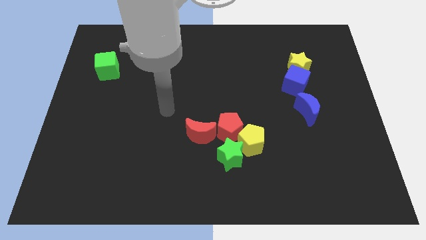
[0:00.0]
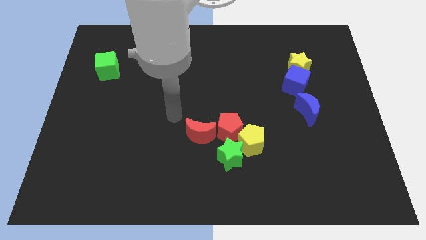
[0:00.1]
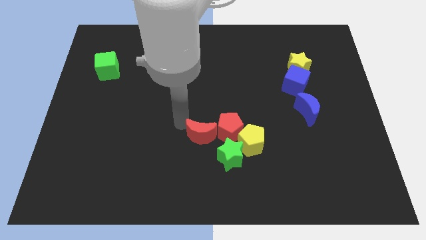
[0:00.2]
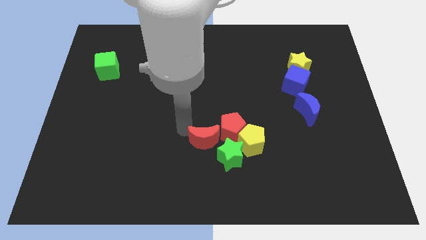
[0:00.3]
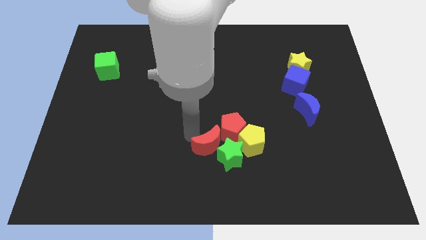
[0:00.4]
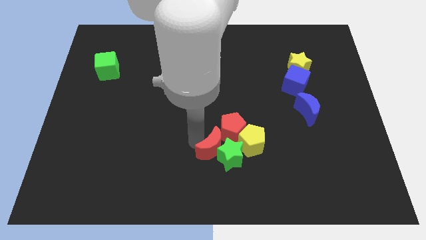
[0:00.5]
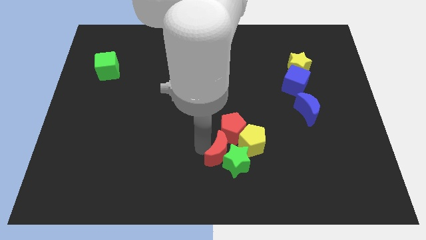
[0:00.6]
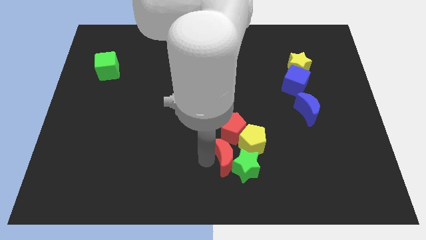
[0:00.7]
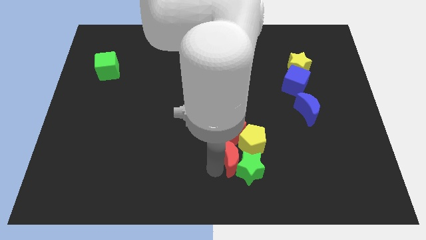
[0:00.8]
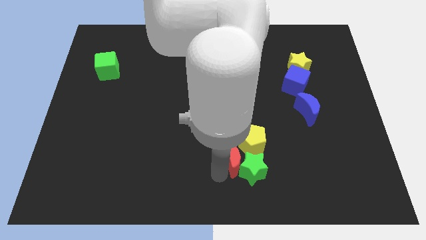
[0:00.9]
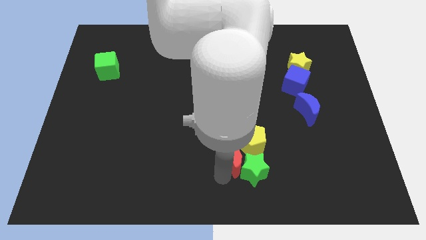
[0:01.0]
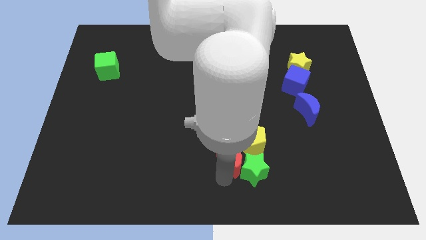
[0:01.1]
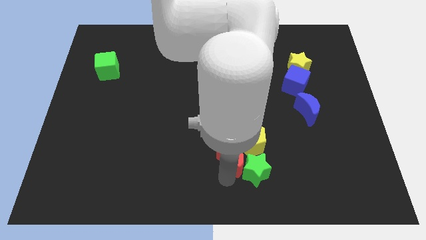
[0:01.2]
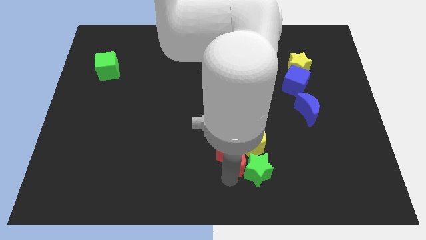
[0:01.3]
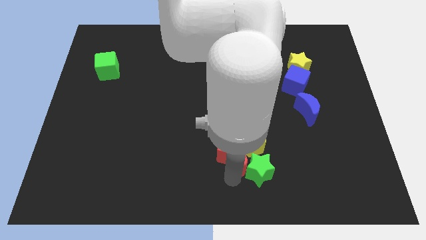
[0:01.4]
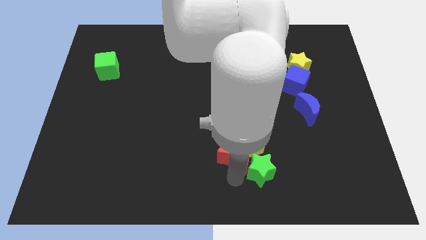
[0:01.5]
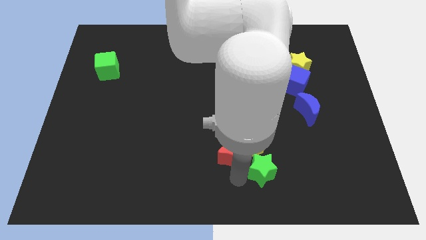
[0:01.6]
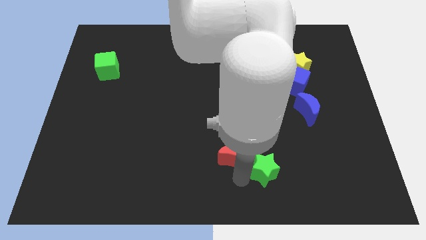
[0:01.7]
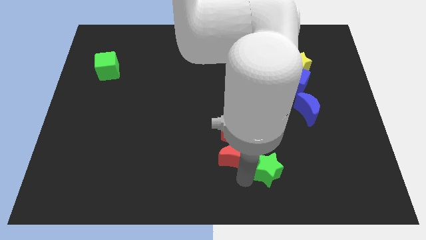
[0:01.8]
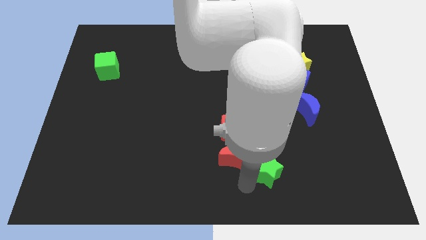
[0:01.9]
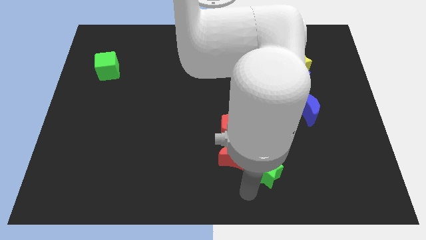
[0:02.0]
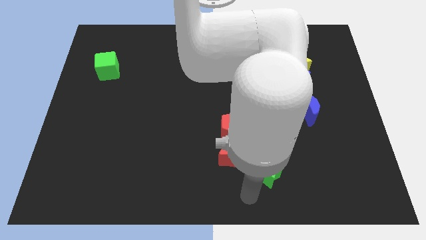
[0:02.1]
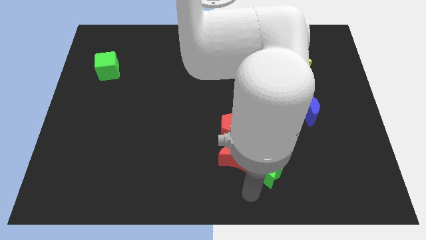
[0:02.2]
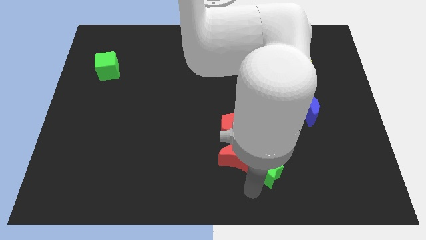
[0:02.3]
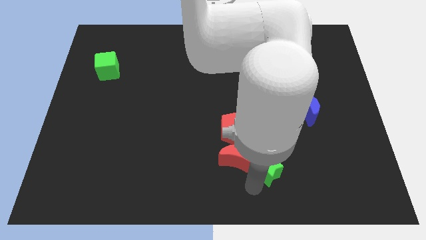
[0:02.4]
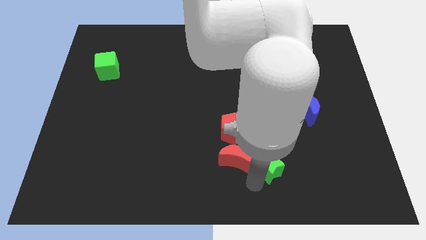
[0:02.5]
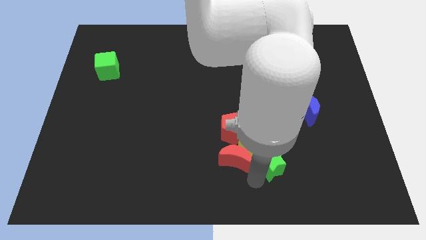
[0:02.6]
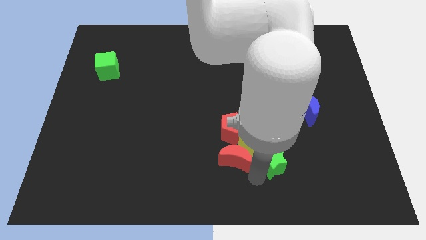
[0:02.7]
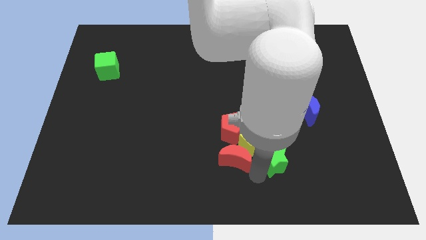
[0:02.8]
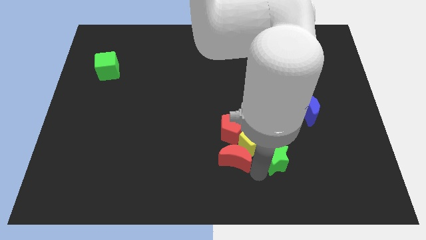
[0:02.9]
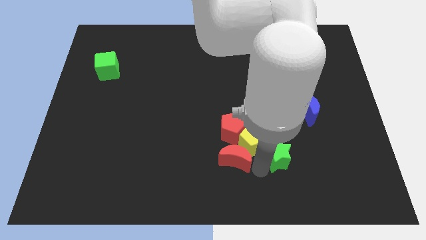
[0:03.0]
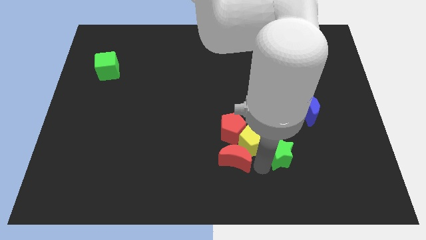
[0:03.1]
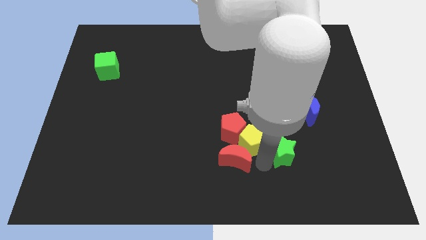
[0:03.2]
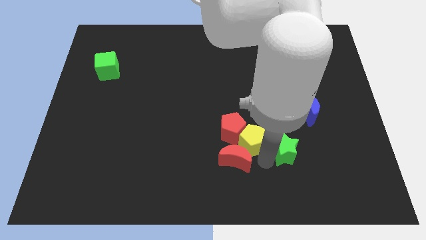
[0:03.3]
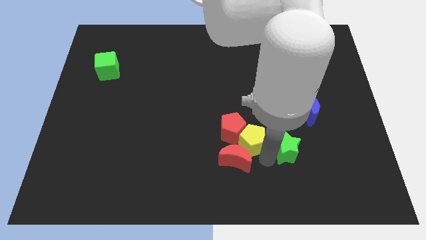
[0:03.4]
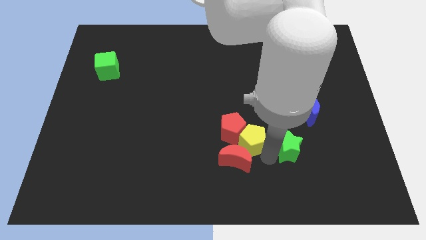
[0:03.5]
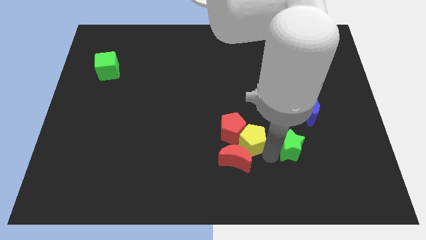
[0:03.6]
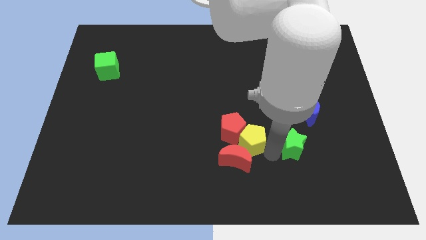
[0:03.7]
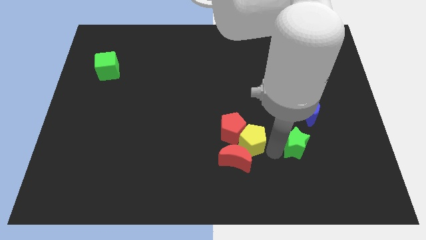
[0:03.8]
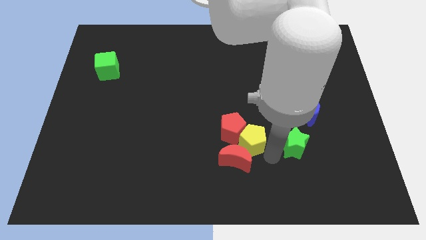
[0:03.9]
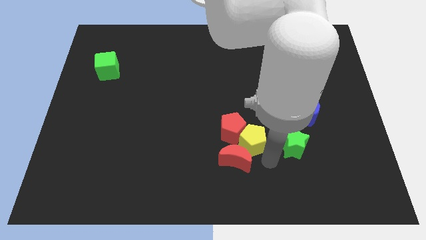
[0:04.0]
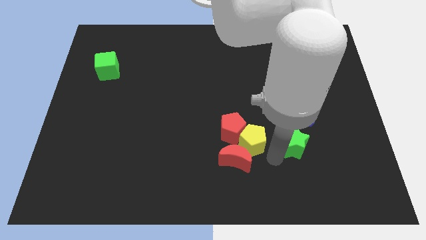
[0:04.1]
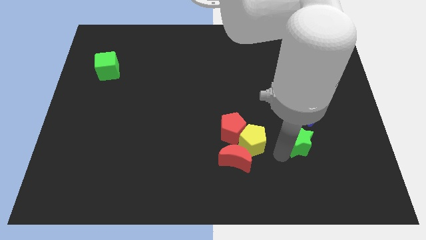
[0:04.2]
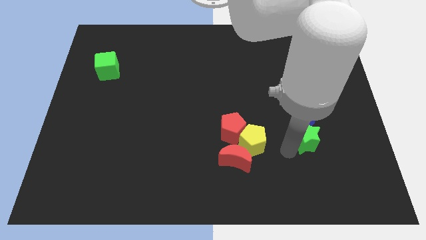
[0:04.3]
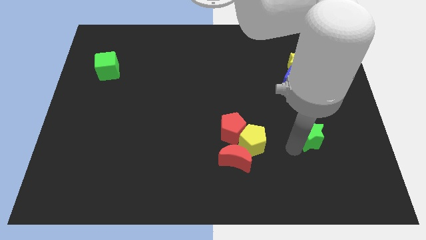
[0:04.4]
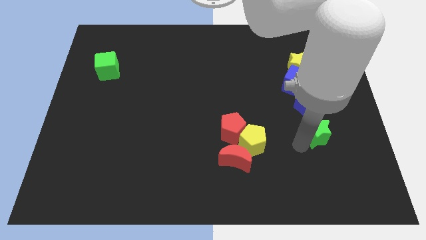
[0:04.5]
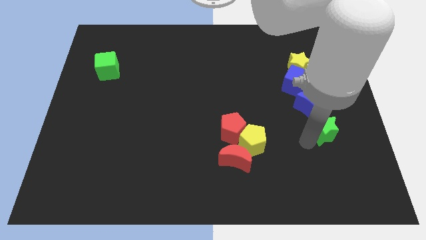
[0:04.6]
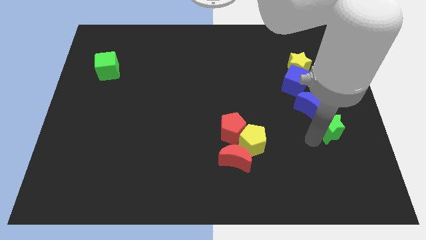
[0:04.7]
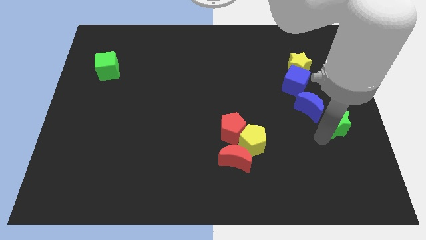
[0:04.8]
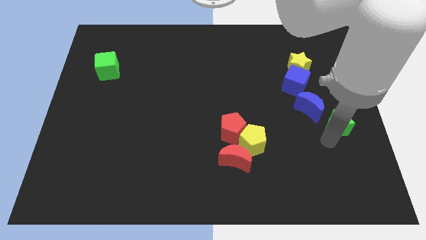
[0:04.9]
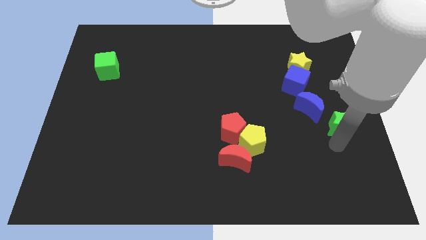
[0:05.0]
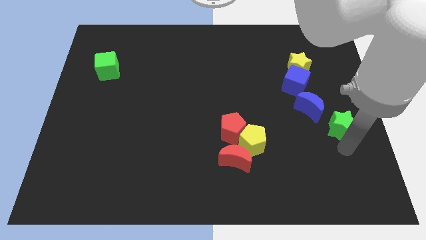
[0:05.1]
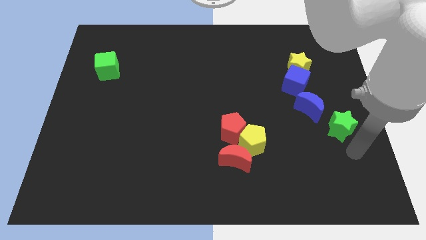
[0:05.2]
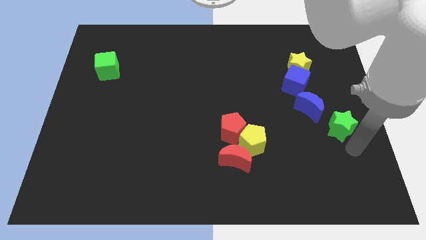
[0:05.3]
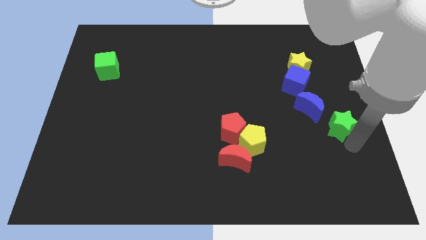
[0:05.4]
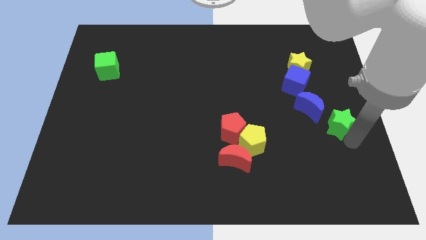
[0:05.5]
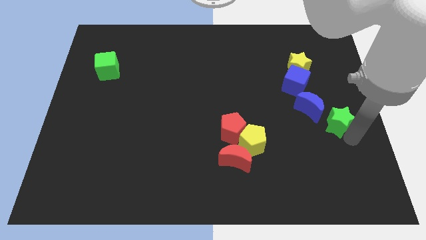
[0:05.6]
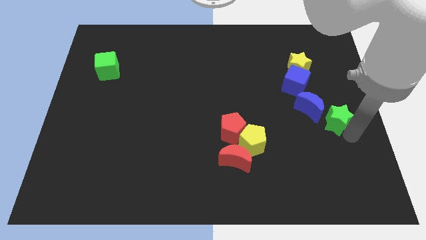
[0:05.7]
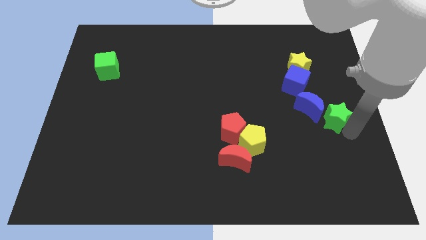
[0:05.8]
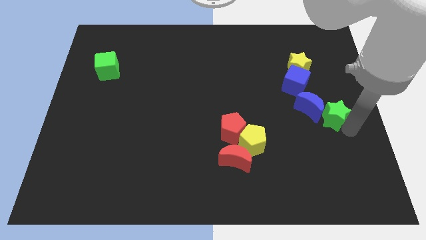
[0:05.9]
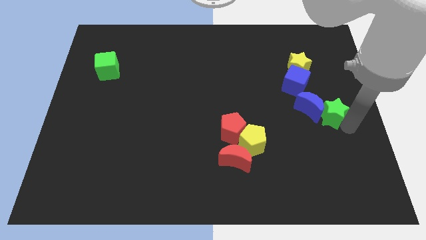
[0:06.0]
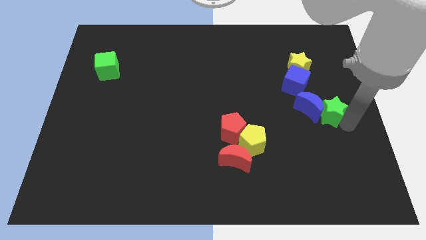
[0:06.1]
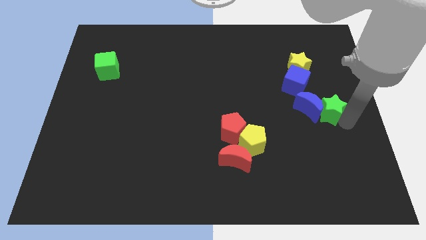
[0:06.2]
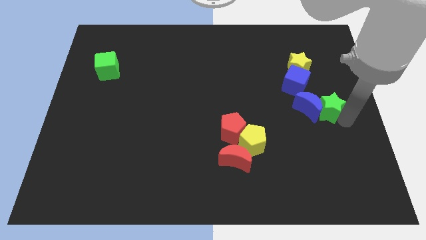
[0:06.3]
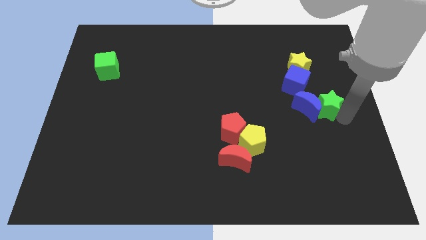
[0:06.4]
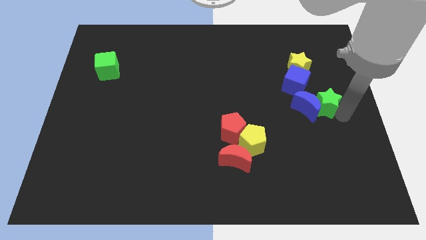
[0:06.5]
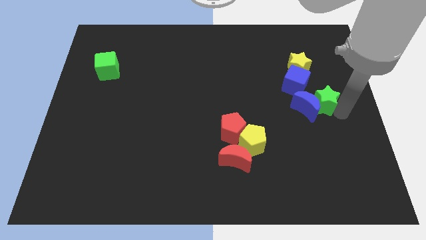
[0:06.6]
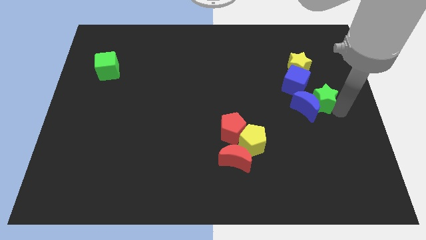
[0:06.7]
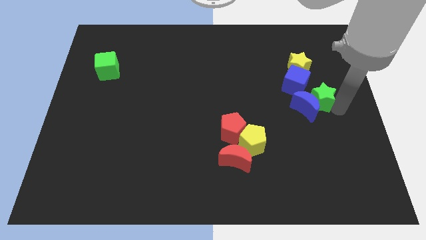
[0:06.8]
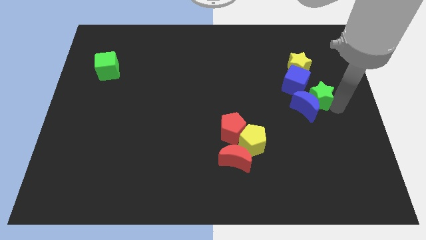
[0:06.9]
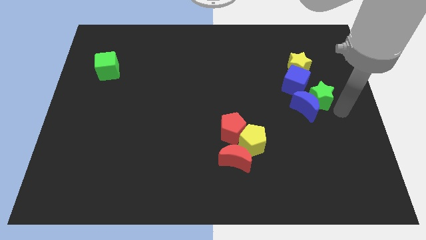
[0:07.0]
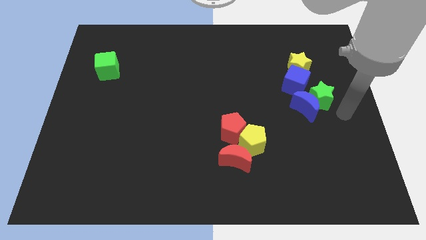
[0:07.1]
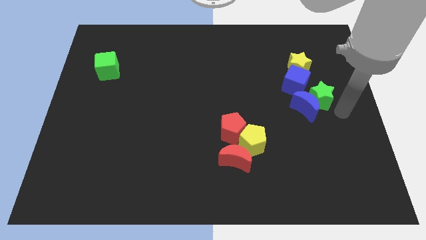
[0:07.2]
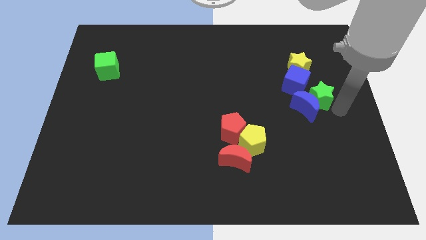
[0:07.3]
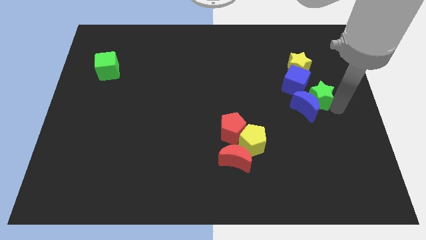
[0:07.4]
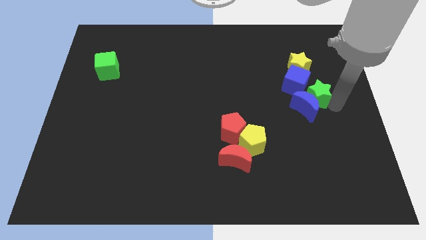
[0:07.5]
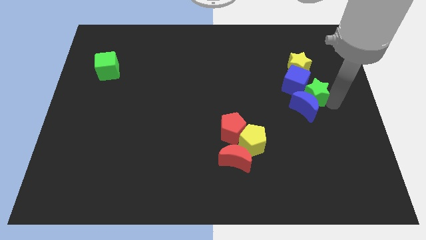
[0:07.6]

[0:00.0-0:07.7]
slide the green star next to the blue cube

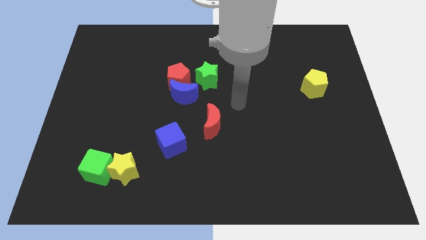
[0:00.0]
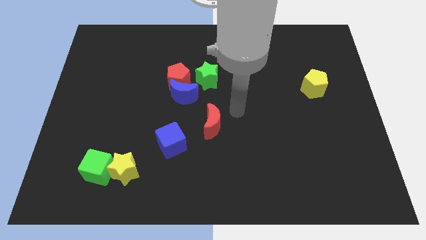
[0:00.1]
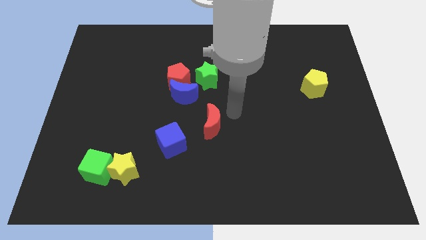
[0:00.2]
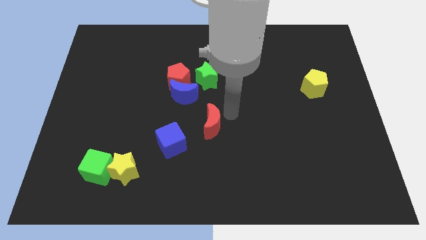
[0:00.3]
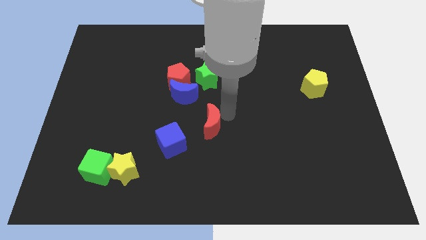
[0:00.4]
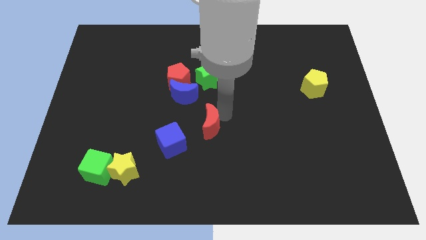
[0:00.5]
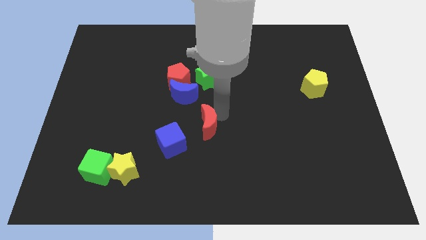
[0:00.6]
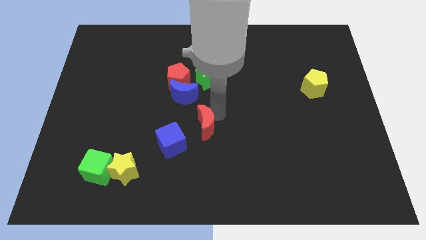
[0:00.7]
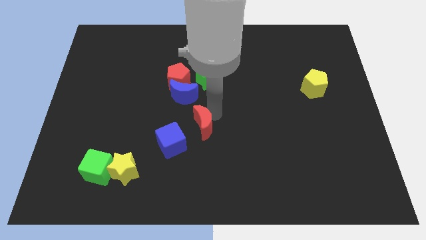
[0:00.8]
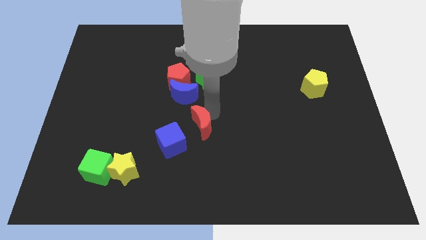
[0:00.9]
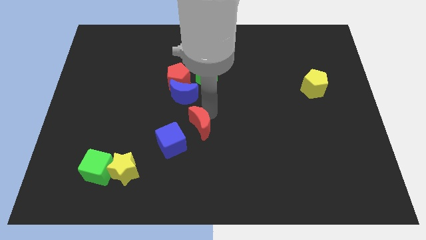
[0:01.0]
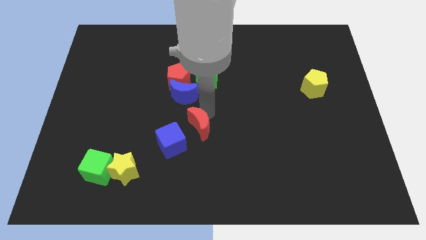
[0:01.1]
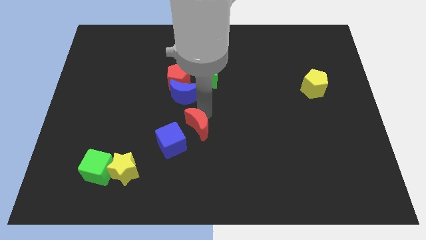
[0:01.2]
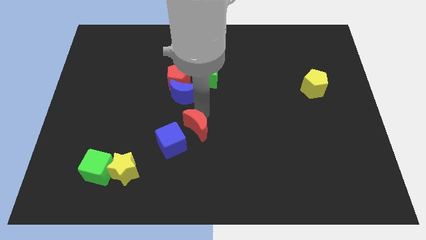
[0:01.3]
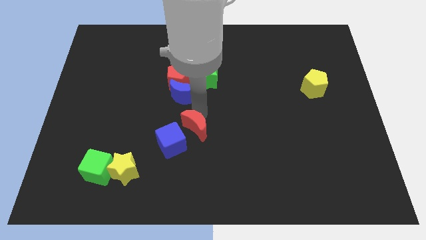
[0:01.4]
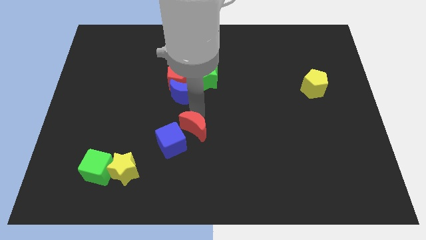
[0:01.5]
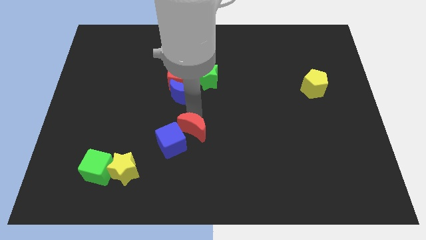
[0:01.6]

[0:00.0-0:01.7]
push the red moon towards the blue cube
